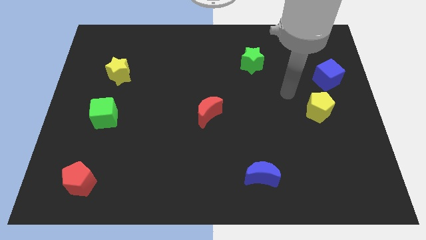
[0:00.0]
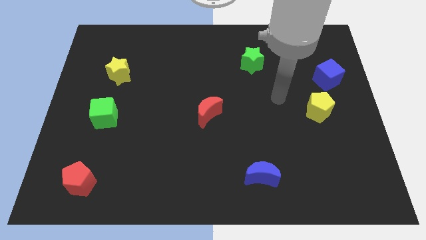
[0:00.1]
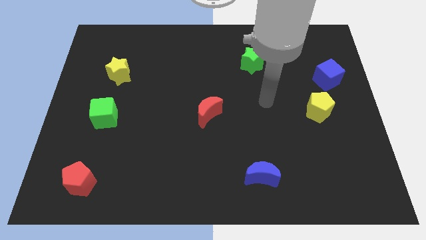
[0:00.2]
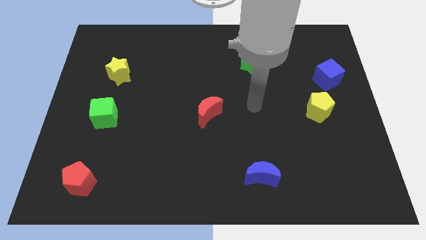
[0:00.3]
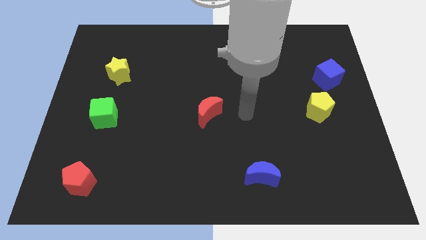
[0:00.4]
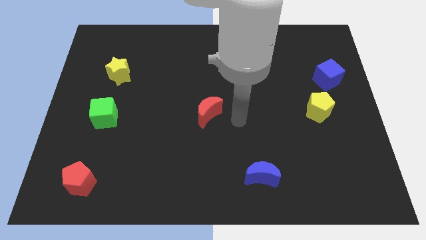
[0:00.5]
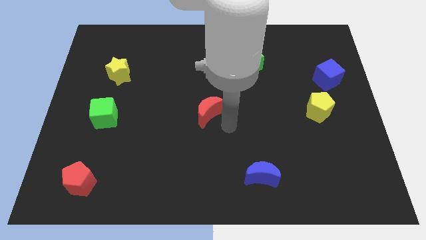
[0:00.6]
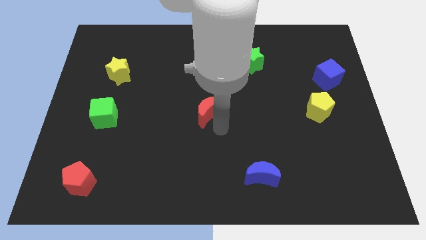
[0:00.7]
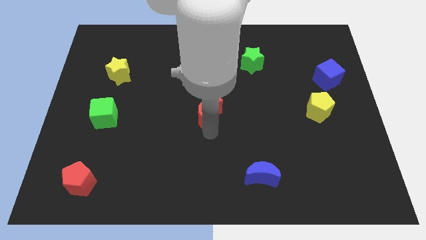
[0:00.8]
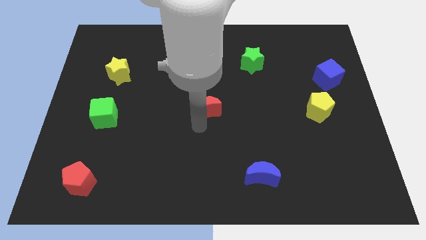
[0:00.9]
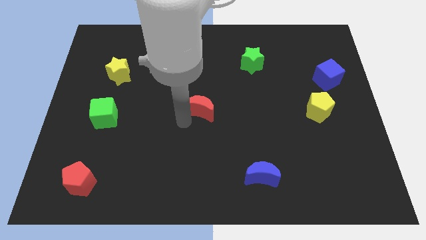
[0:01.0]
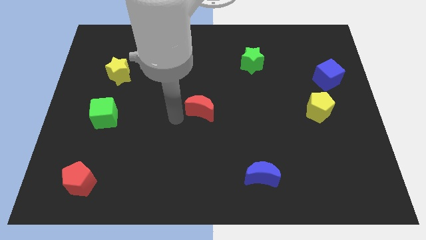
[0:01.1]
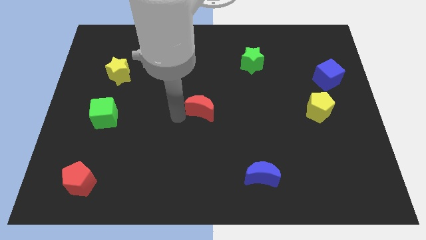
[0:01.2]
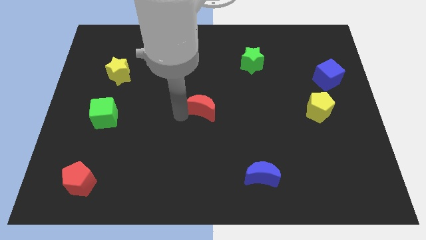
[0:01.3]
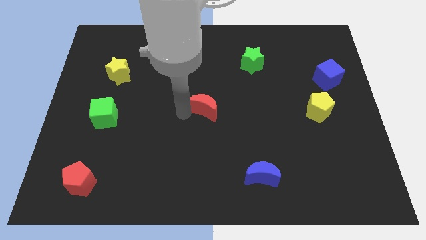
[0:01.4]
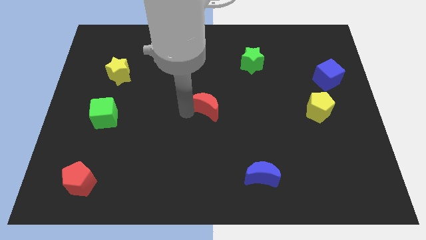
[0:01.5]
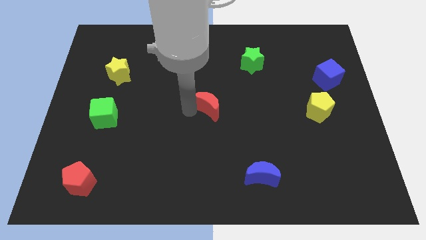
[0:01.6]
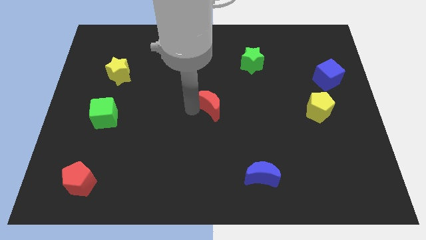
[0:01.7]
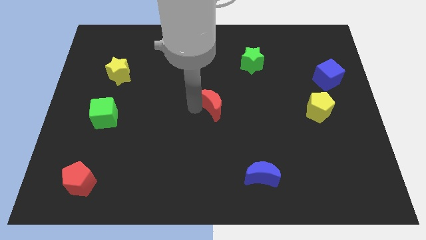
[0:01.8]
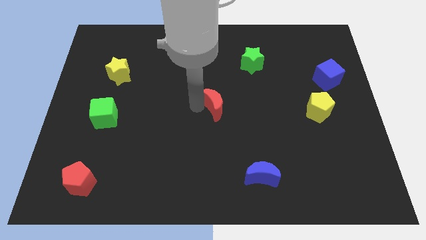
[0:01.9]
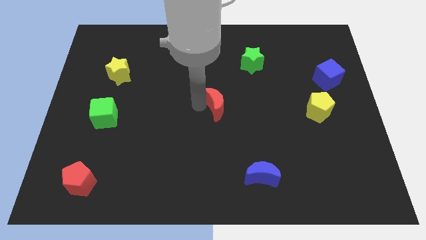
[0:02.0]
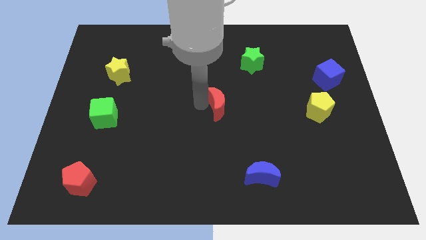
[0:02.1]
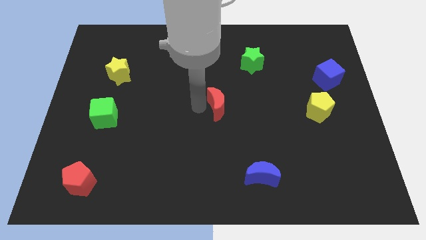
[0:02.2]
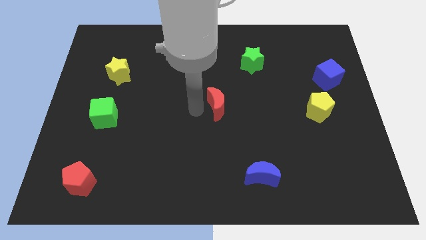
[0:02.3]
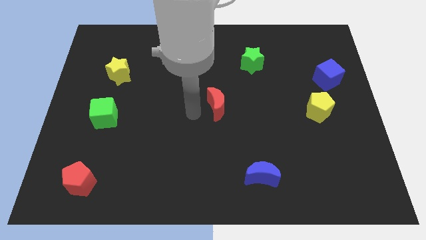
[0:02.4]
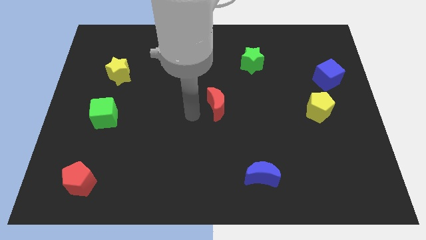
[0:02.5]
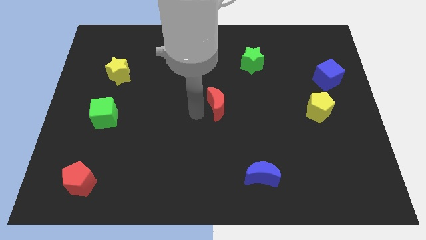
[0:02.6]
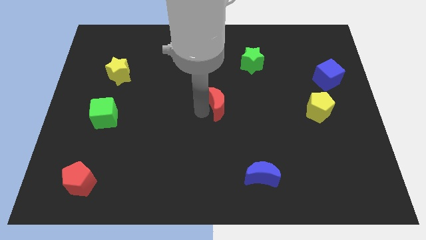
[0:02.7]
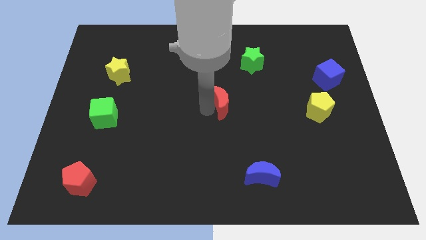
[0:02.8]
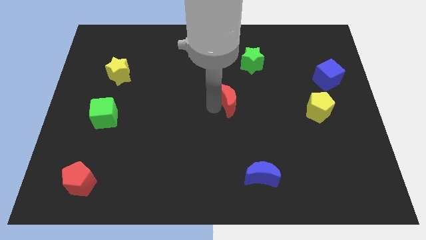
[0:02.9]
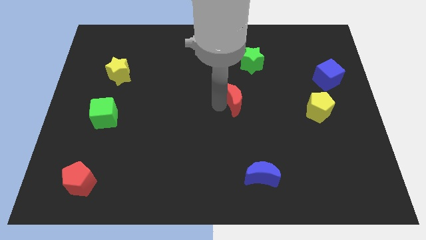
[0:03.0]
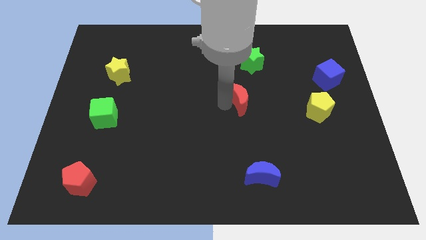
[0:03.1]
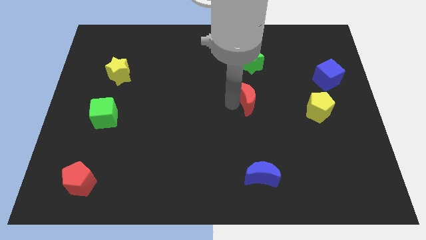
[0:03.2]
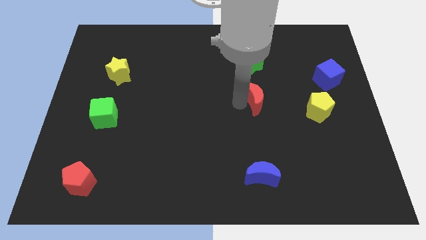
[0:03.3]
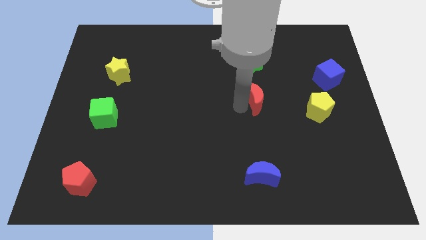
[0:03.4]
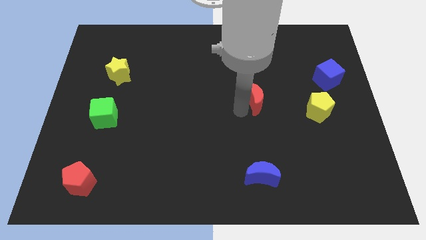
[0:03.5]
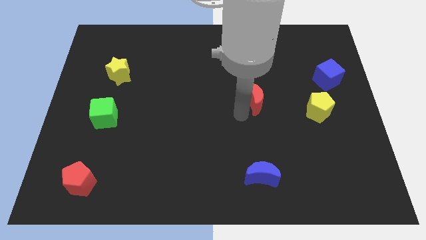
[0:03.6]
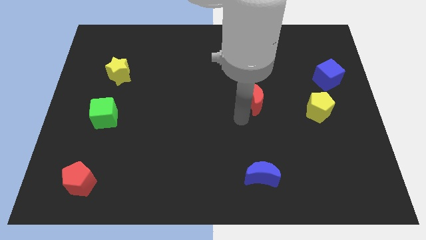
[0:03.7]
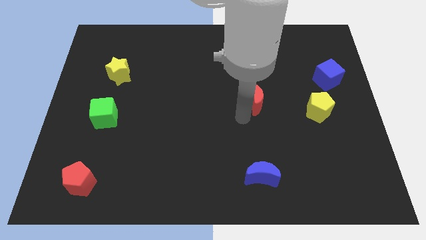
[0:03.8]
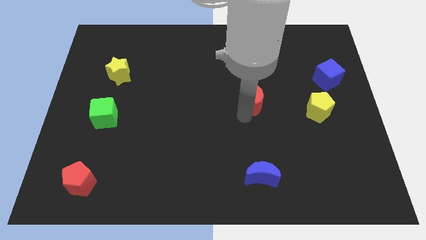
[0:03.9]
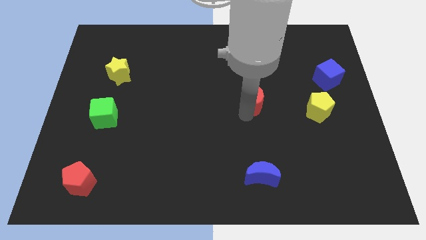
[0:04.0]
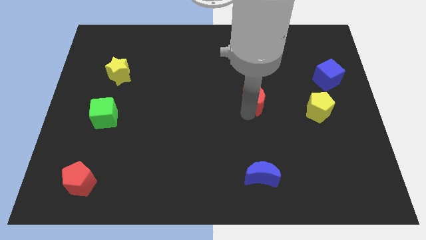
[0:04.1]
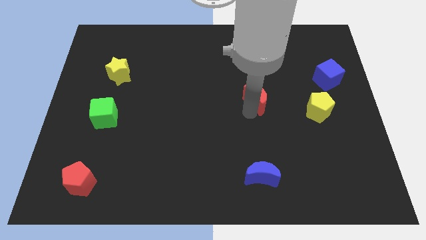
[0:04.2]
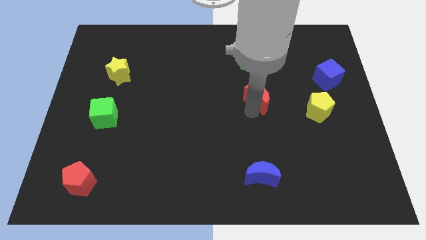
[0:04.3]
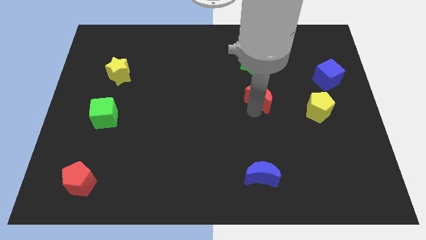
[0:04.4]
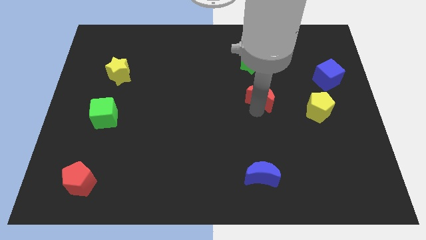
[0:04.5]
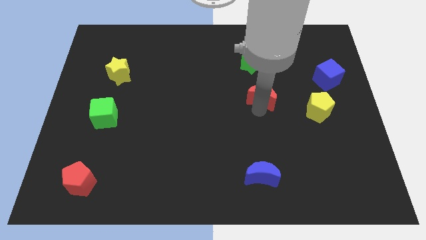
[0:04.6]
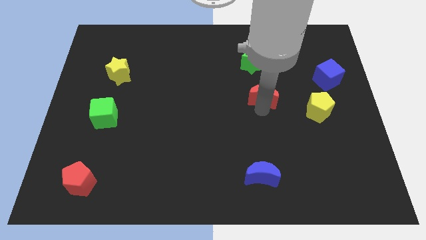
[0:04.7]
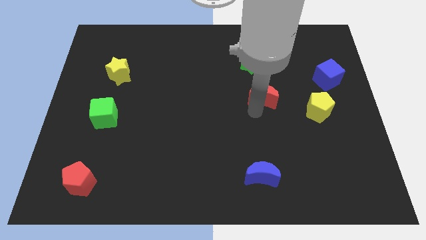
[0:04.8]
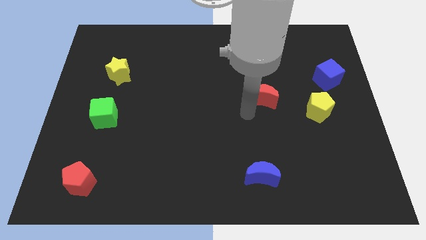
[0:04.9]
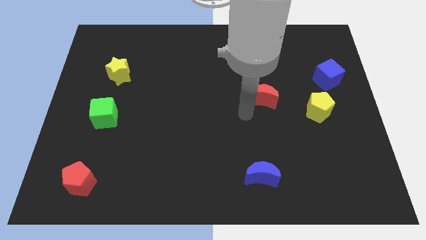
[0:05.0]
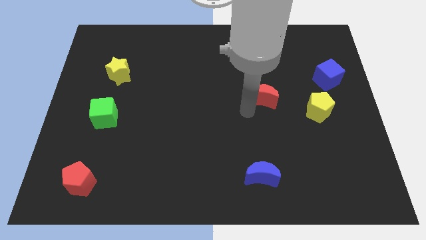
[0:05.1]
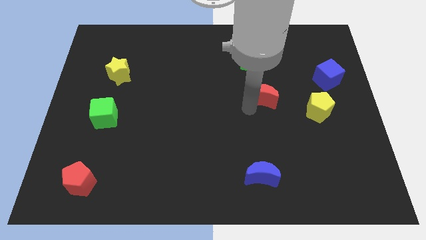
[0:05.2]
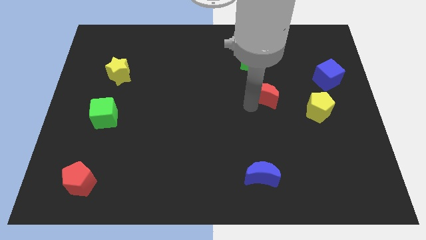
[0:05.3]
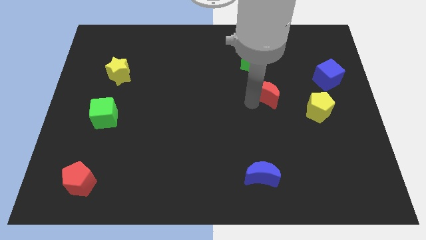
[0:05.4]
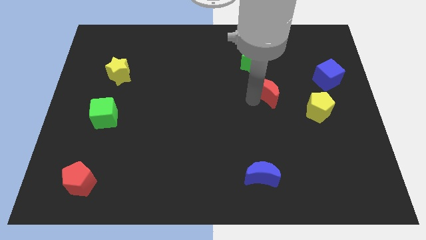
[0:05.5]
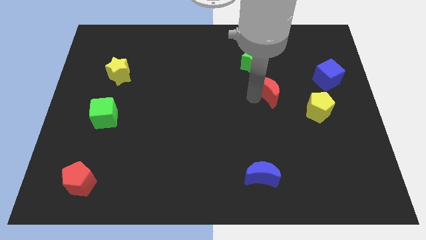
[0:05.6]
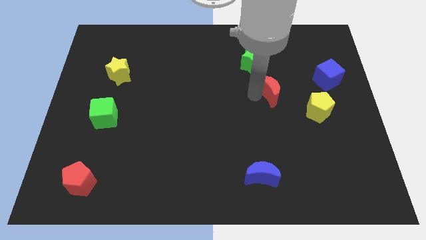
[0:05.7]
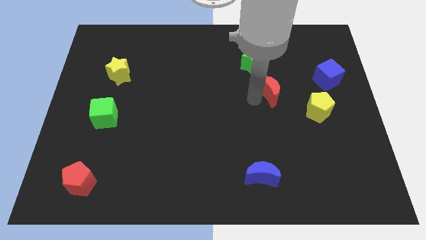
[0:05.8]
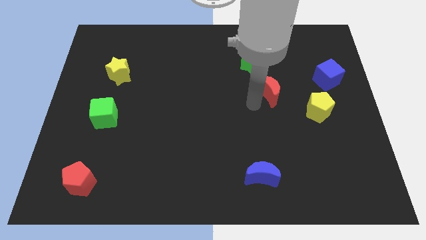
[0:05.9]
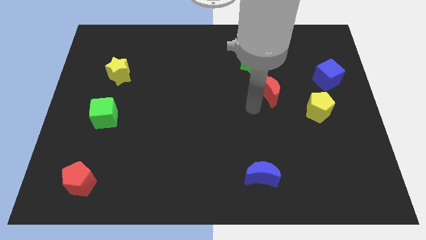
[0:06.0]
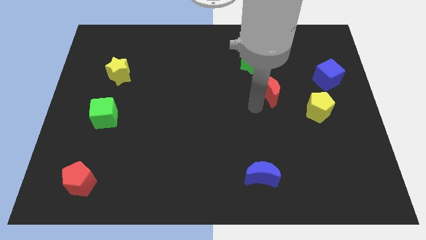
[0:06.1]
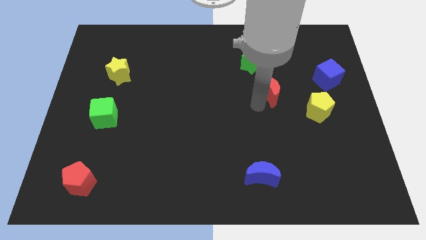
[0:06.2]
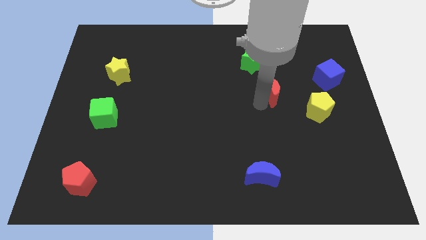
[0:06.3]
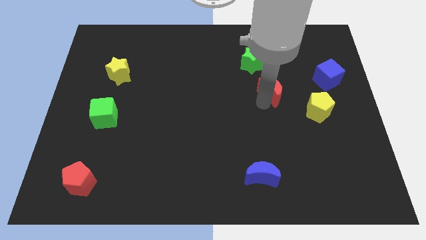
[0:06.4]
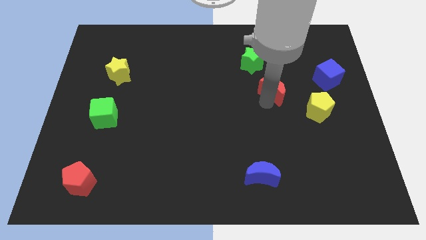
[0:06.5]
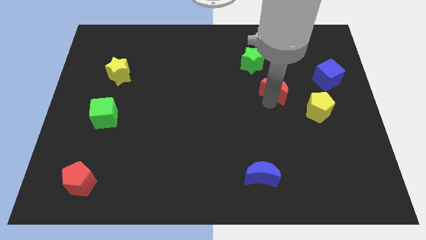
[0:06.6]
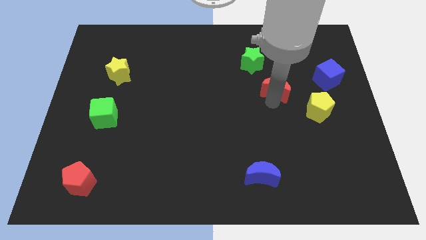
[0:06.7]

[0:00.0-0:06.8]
put the red moon to the left side of the blue cube

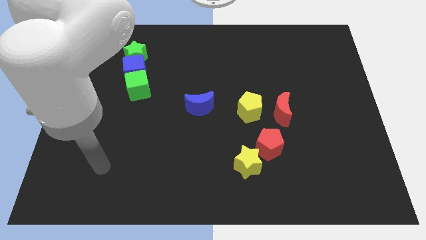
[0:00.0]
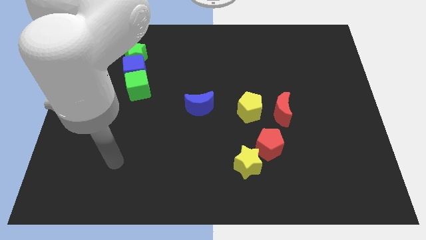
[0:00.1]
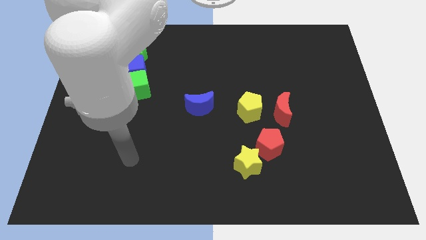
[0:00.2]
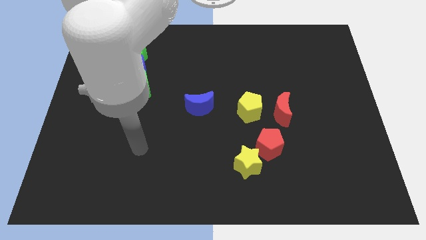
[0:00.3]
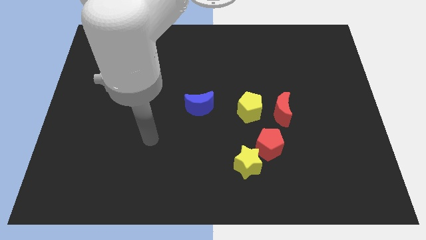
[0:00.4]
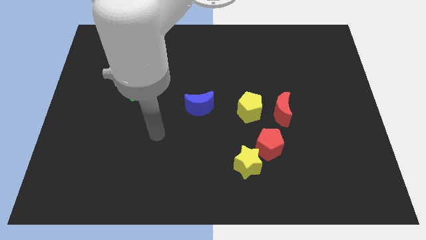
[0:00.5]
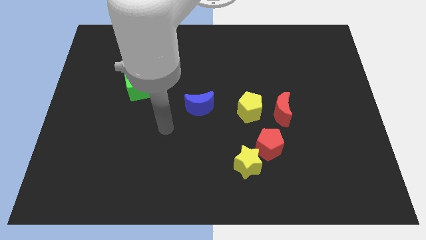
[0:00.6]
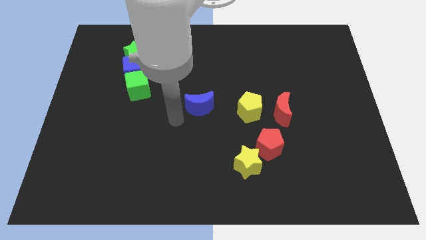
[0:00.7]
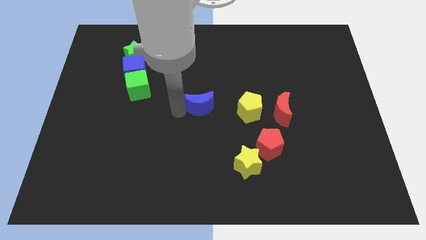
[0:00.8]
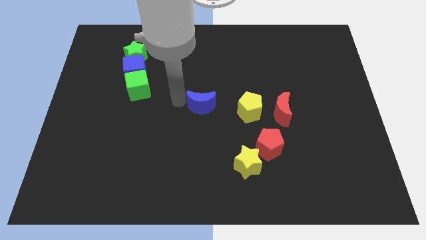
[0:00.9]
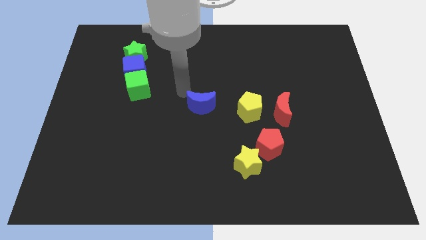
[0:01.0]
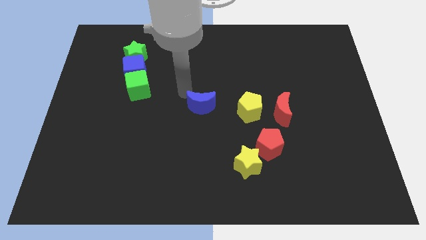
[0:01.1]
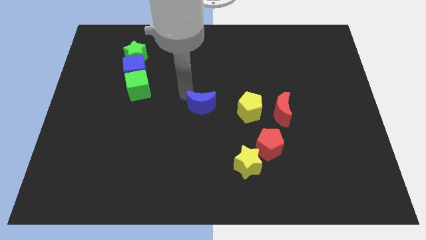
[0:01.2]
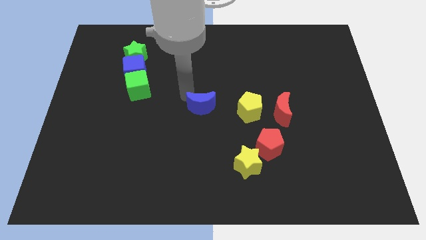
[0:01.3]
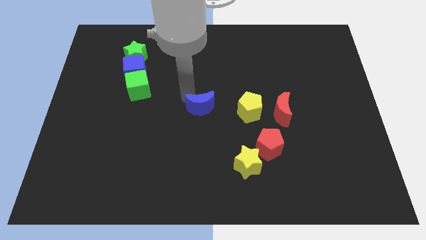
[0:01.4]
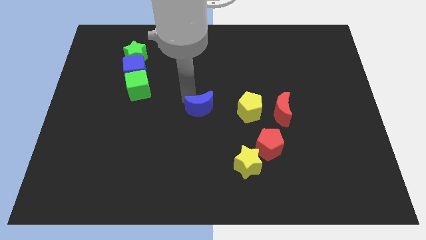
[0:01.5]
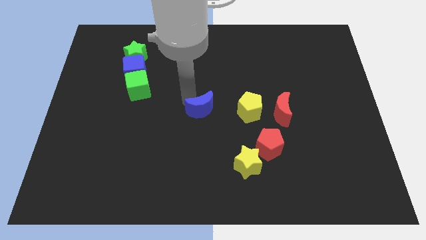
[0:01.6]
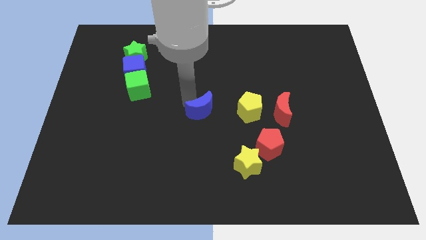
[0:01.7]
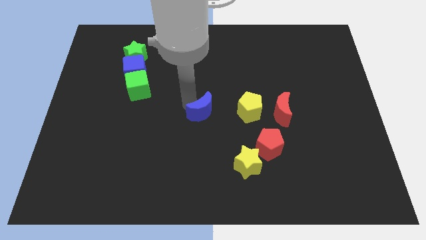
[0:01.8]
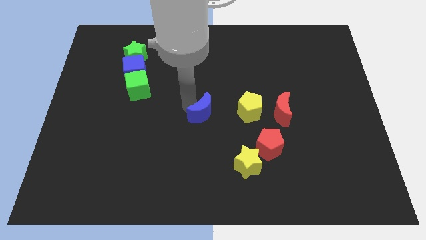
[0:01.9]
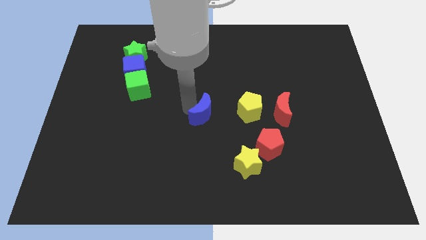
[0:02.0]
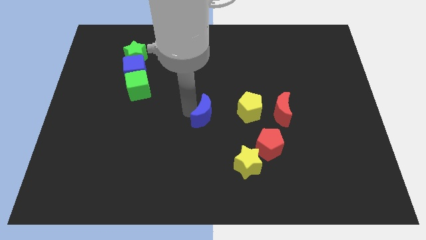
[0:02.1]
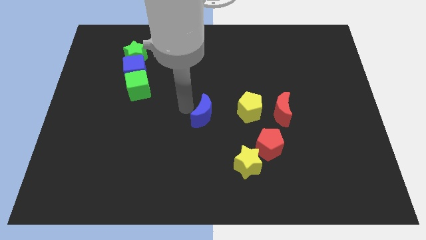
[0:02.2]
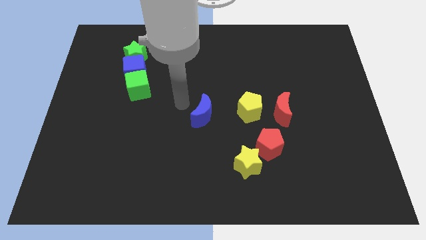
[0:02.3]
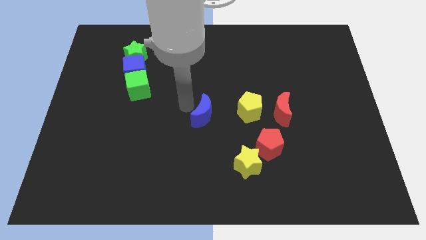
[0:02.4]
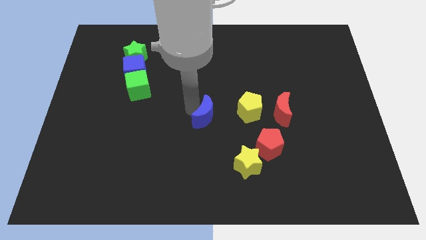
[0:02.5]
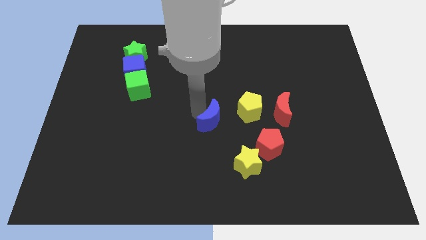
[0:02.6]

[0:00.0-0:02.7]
push the blue moon to the bottom left of the yellow pentagon
